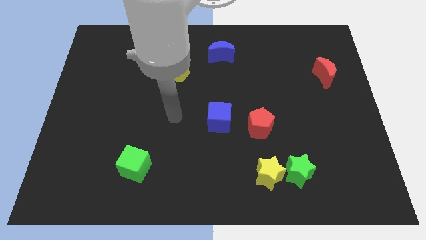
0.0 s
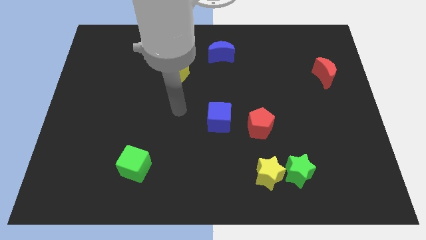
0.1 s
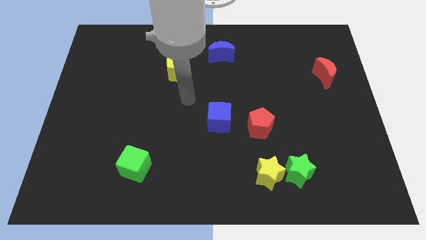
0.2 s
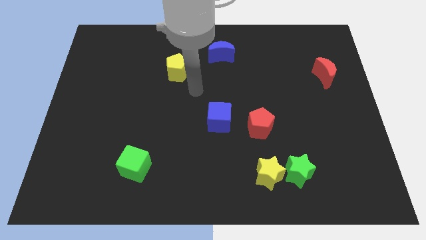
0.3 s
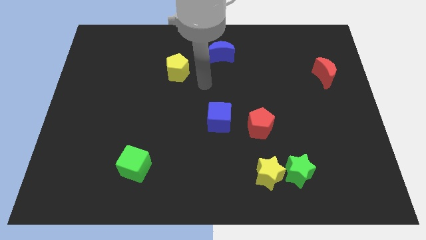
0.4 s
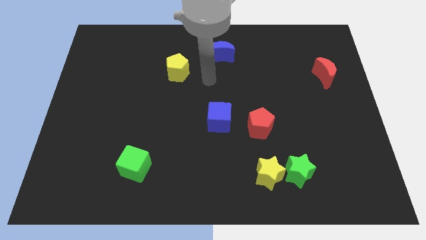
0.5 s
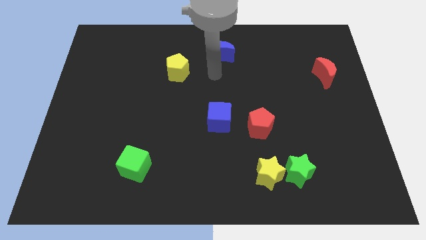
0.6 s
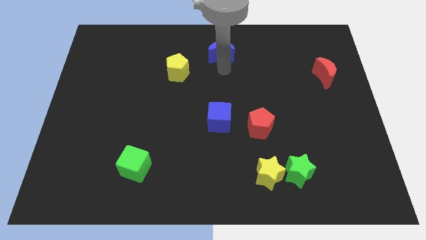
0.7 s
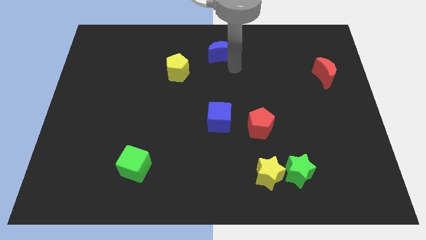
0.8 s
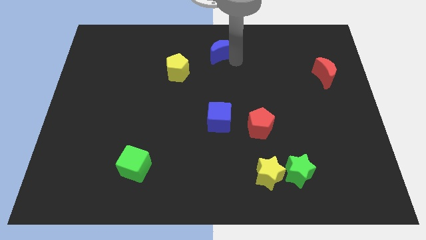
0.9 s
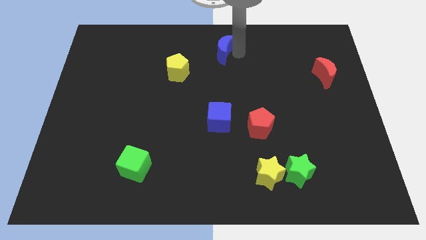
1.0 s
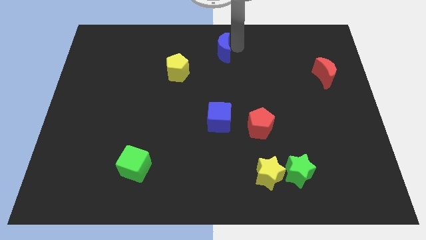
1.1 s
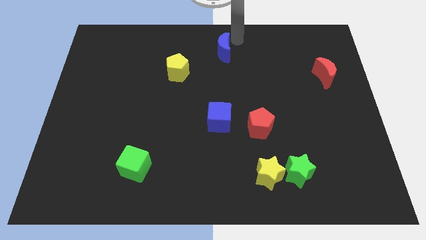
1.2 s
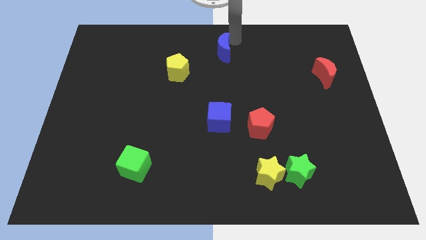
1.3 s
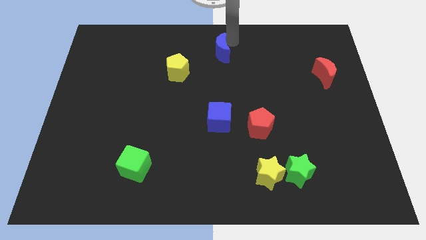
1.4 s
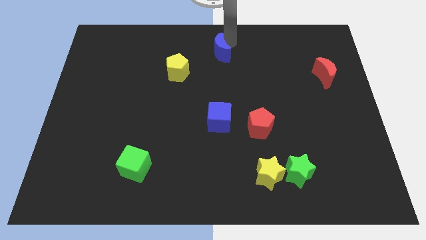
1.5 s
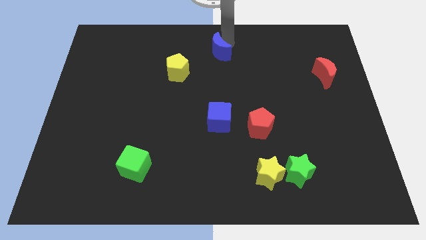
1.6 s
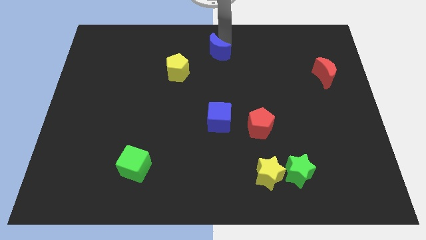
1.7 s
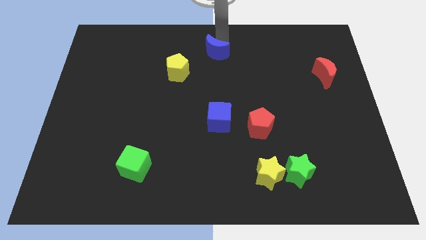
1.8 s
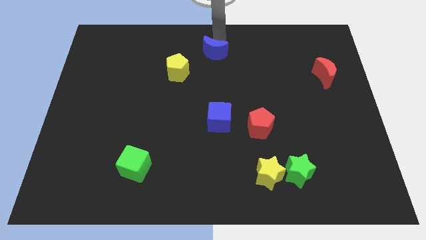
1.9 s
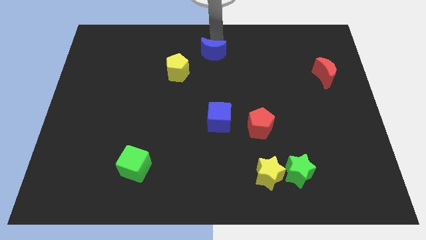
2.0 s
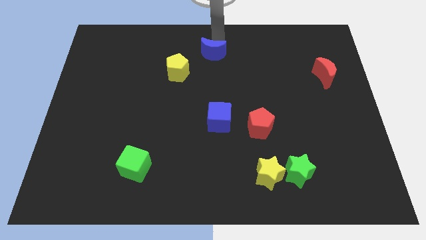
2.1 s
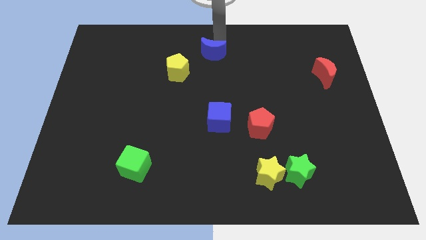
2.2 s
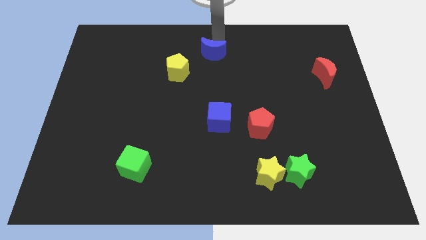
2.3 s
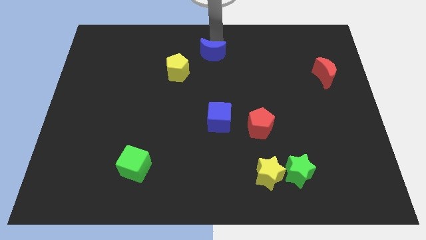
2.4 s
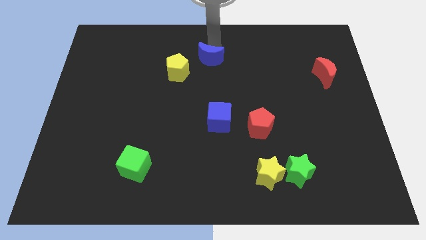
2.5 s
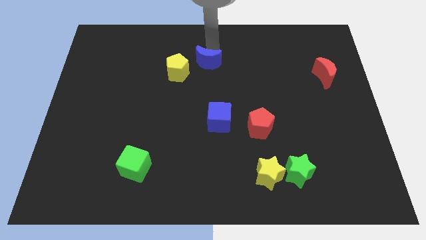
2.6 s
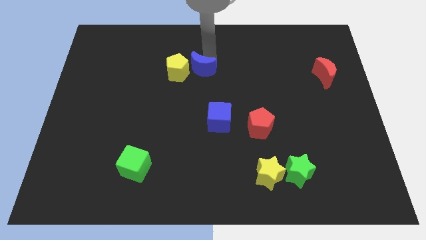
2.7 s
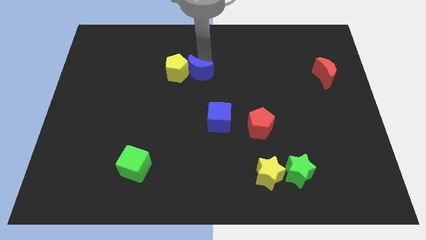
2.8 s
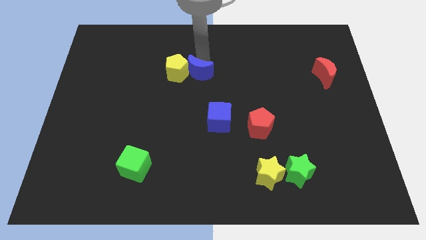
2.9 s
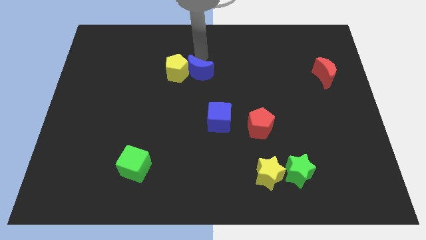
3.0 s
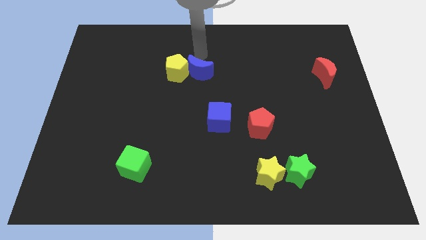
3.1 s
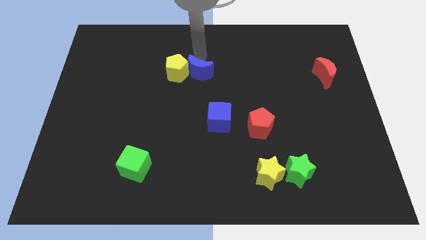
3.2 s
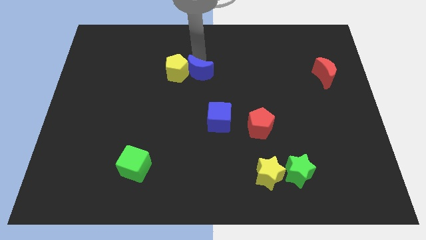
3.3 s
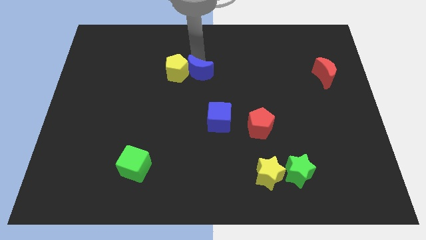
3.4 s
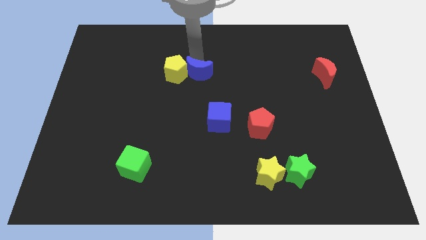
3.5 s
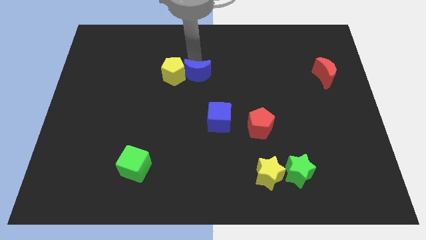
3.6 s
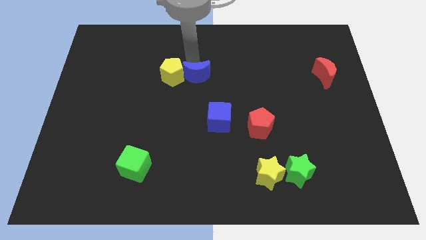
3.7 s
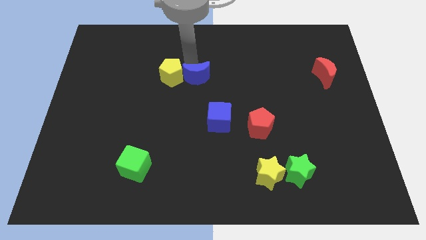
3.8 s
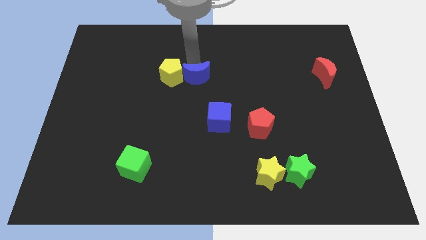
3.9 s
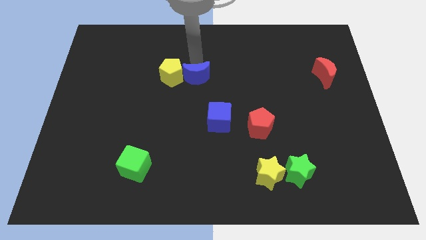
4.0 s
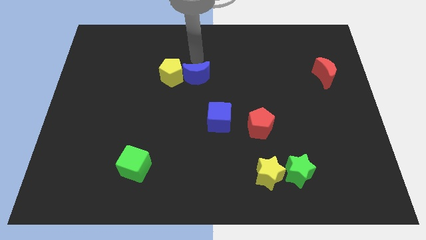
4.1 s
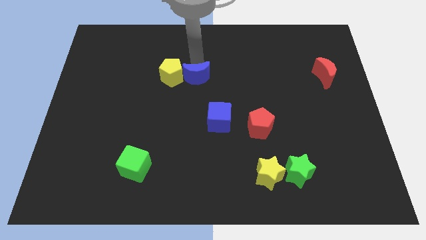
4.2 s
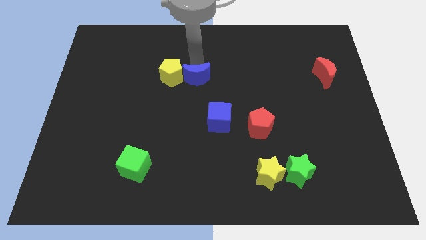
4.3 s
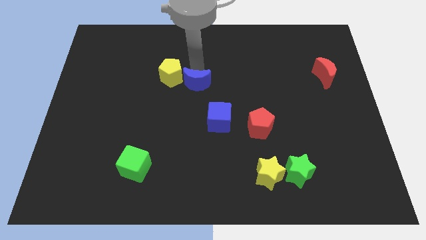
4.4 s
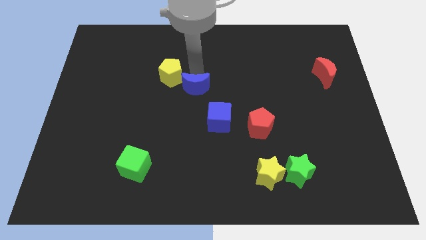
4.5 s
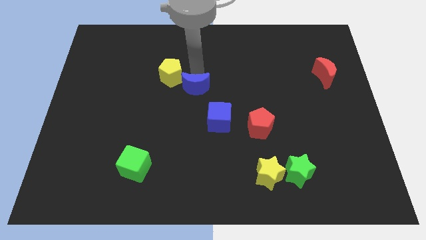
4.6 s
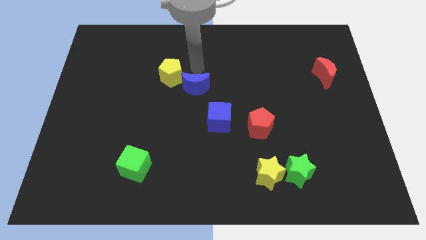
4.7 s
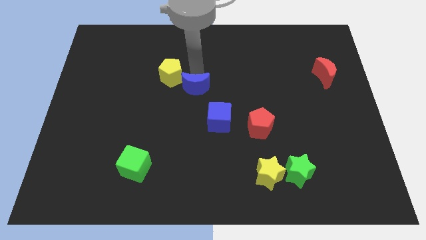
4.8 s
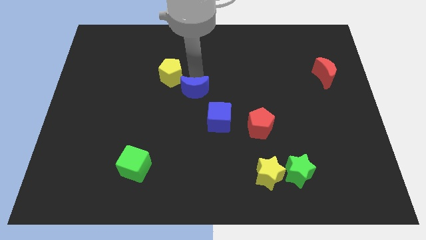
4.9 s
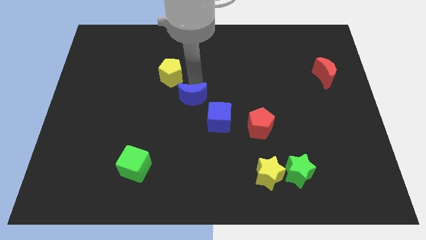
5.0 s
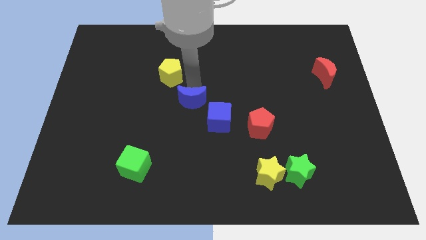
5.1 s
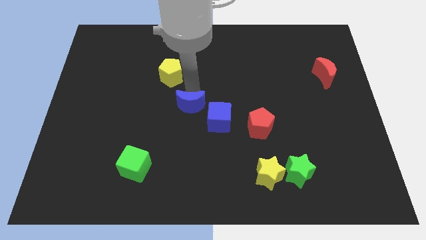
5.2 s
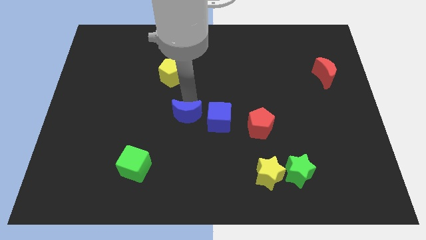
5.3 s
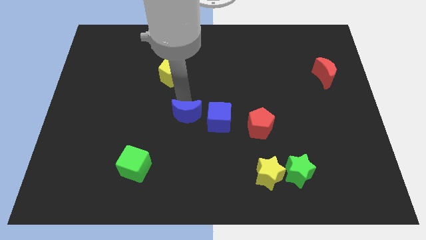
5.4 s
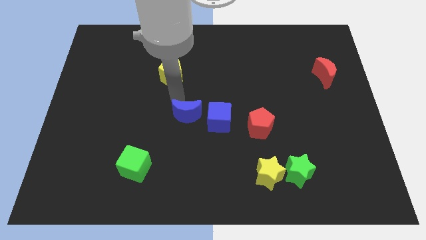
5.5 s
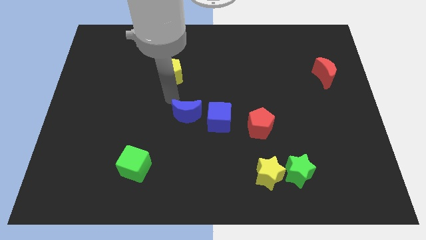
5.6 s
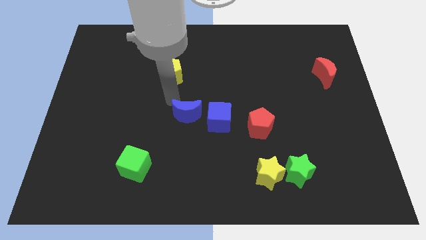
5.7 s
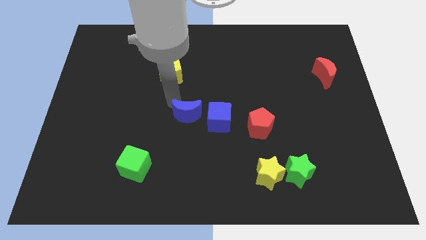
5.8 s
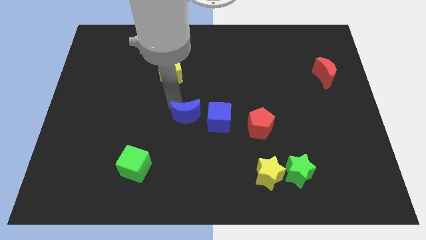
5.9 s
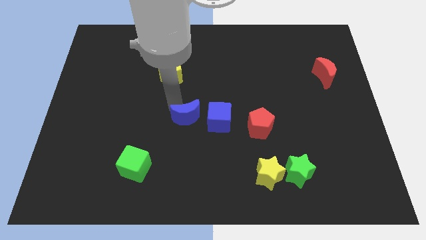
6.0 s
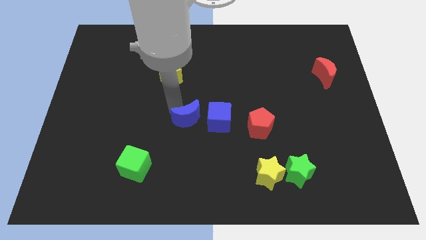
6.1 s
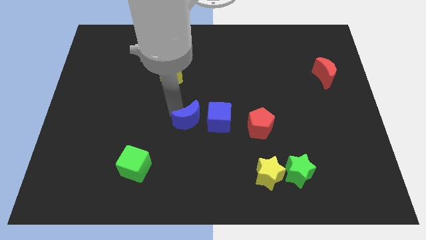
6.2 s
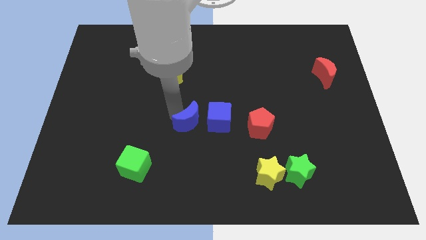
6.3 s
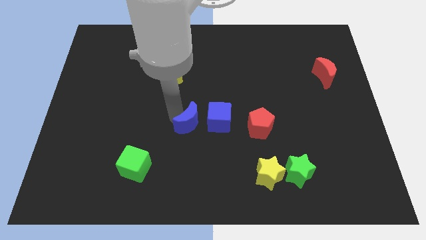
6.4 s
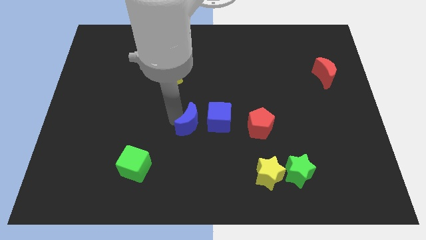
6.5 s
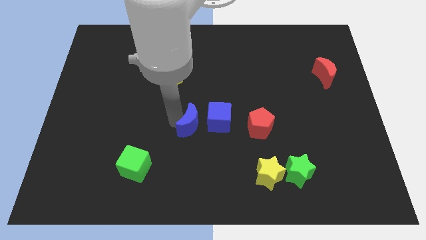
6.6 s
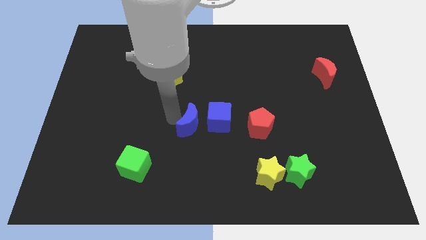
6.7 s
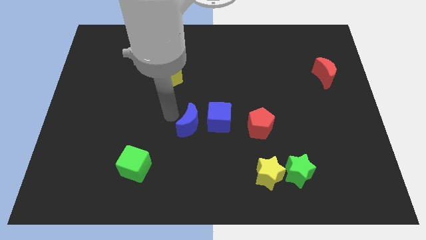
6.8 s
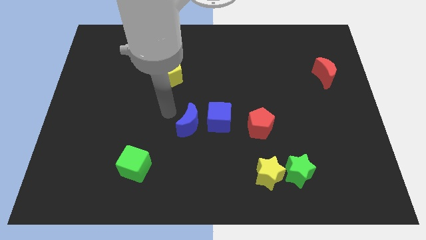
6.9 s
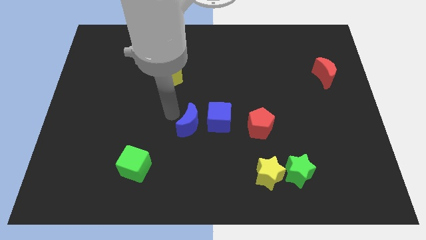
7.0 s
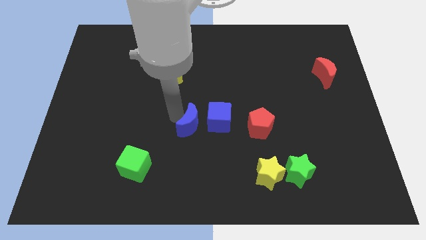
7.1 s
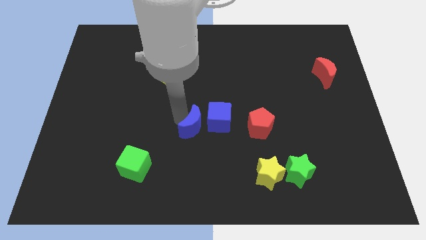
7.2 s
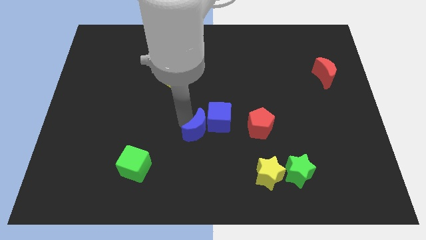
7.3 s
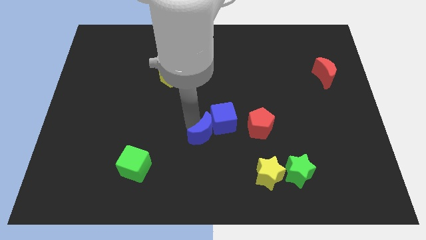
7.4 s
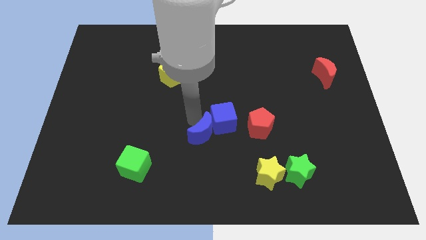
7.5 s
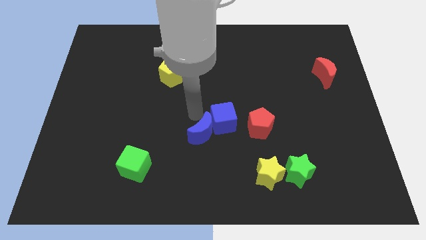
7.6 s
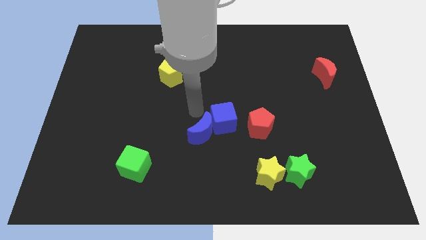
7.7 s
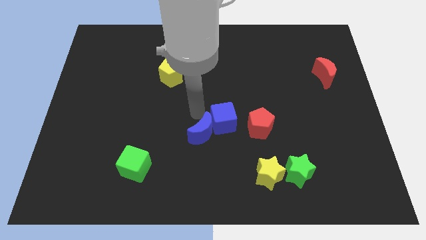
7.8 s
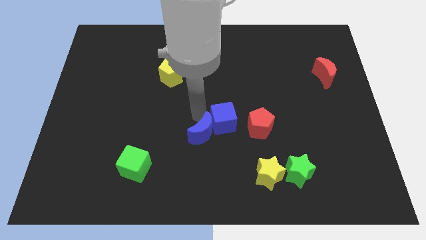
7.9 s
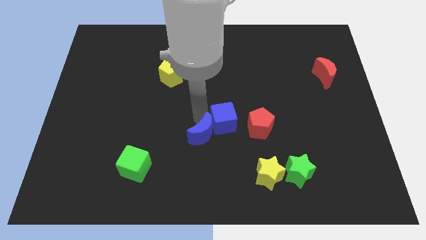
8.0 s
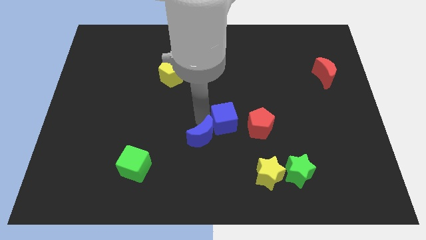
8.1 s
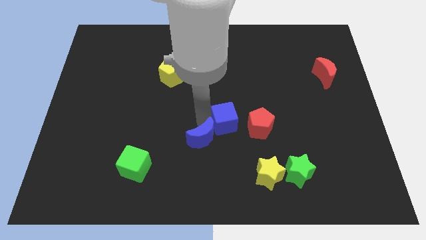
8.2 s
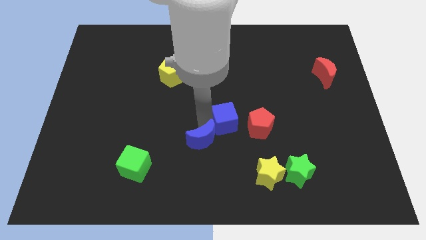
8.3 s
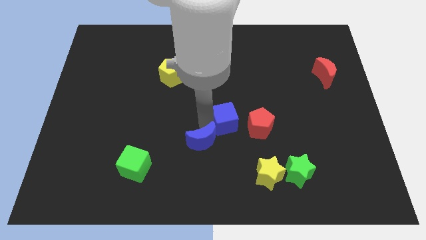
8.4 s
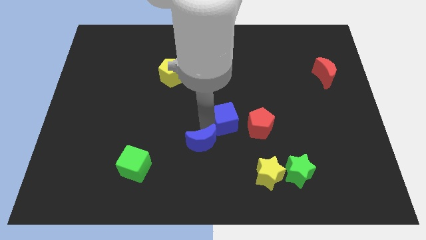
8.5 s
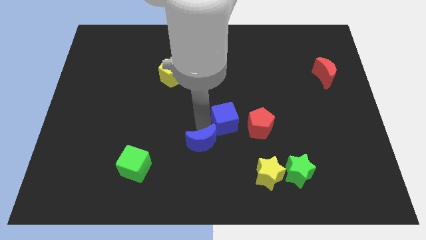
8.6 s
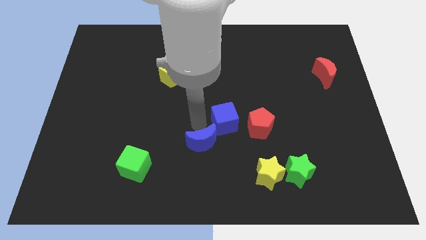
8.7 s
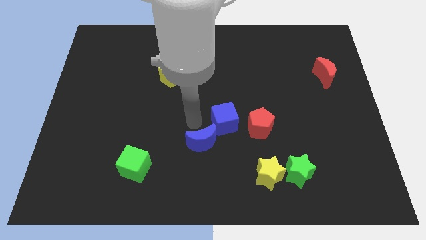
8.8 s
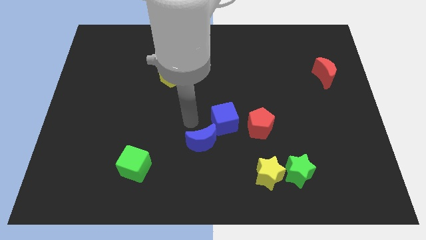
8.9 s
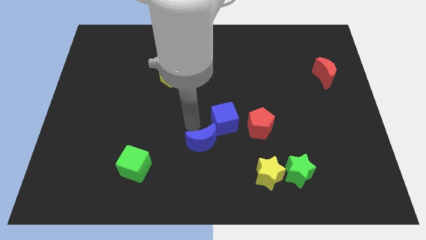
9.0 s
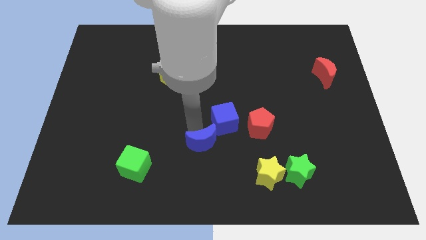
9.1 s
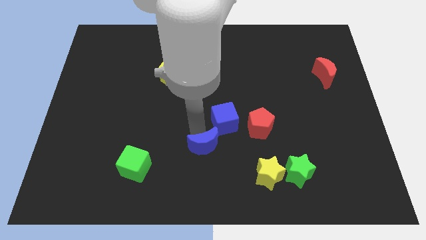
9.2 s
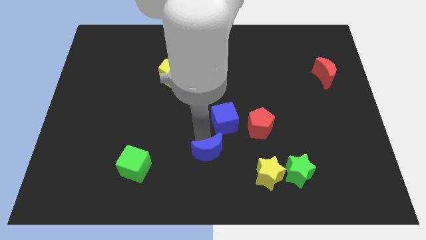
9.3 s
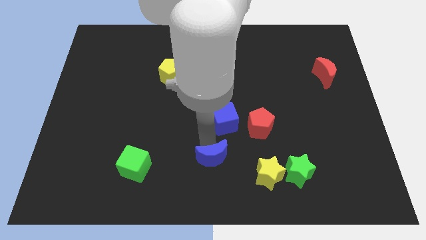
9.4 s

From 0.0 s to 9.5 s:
move the blue moon to the bottom
